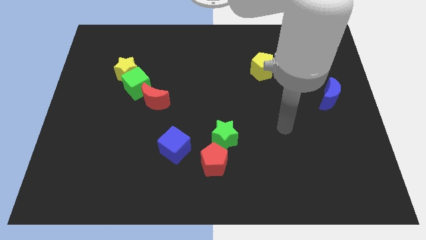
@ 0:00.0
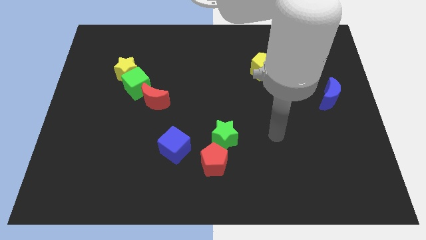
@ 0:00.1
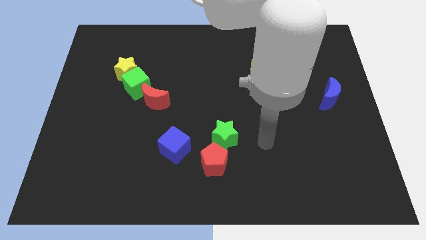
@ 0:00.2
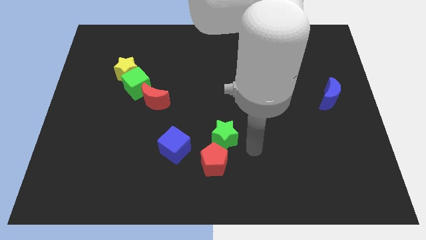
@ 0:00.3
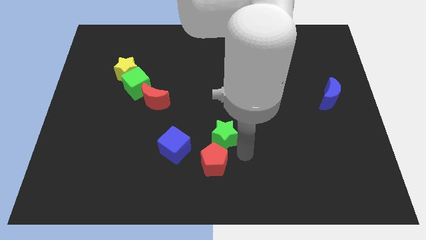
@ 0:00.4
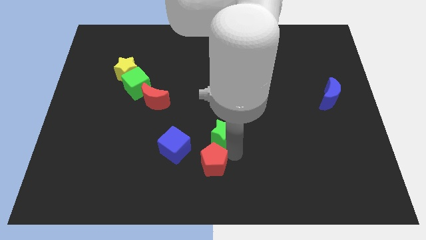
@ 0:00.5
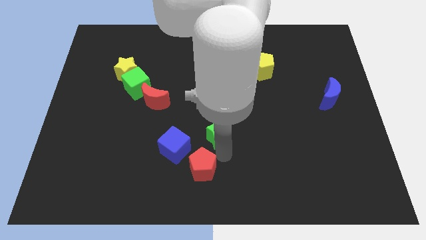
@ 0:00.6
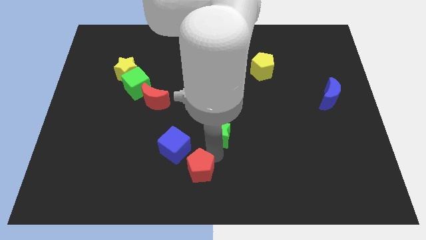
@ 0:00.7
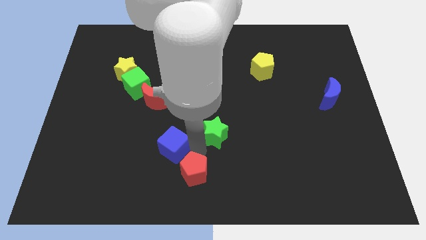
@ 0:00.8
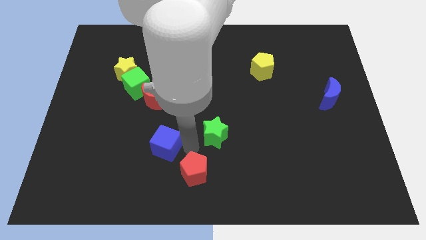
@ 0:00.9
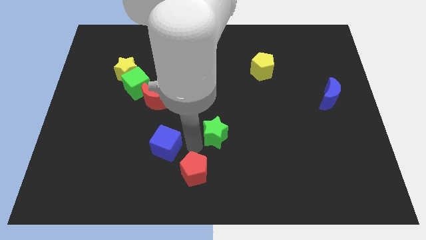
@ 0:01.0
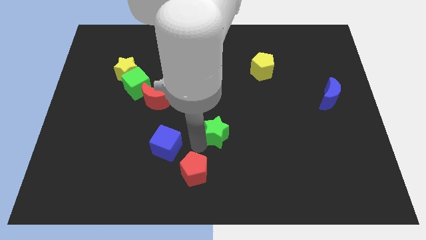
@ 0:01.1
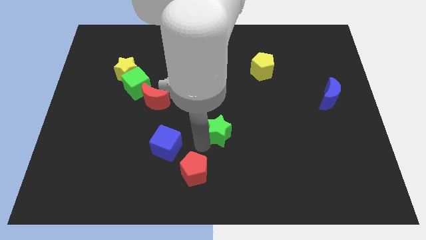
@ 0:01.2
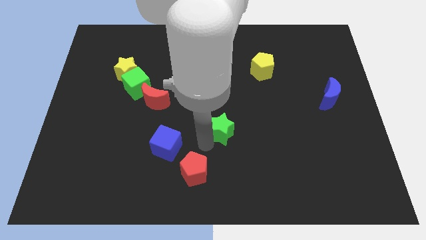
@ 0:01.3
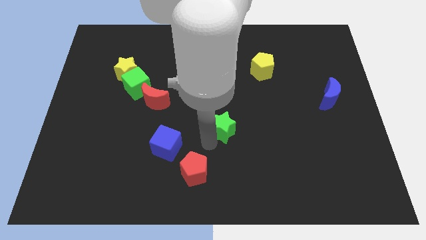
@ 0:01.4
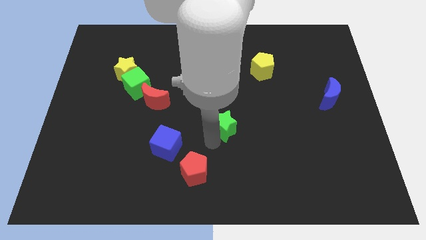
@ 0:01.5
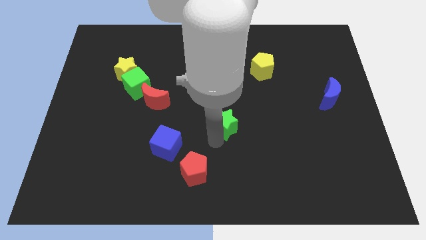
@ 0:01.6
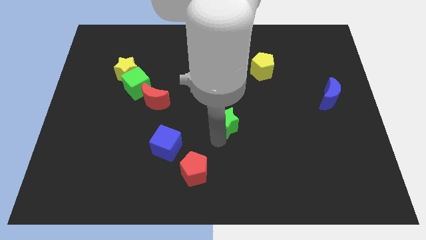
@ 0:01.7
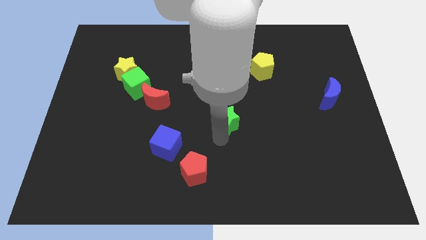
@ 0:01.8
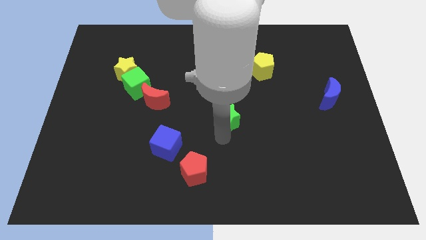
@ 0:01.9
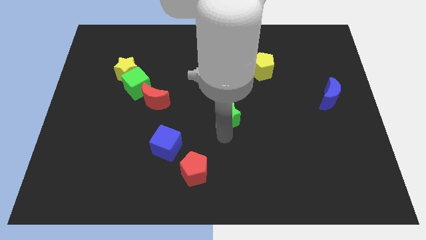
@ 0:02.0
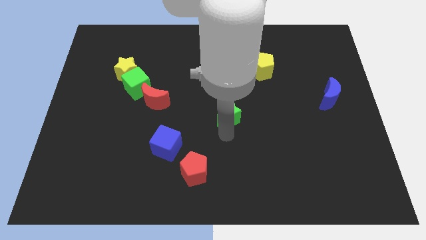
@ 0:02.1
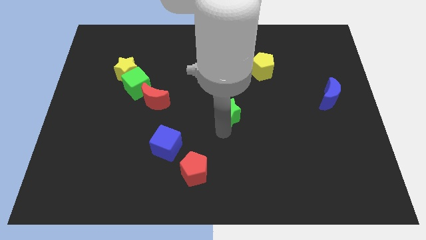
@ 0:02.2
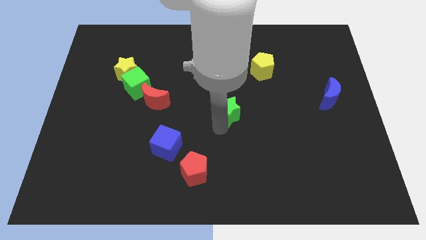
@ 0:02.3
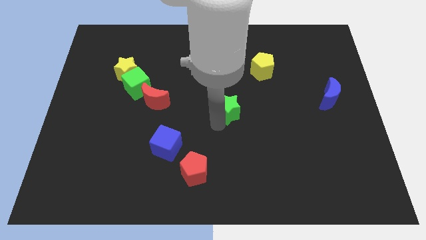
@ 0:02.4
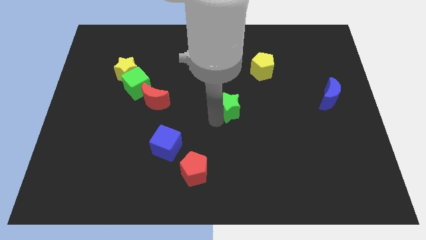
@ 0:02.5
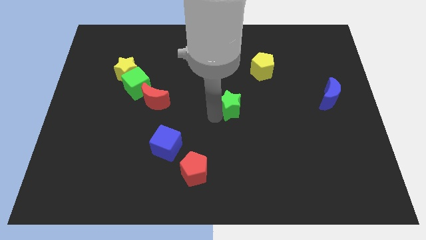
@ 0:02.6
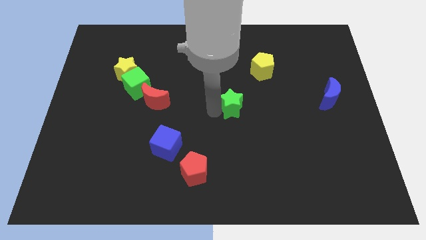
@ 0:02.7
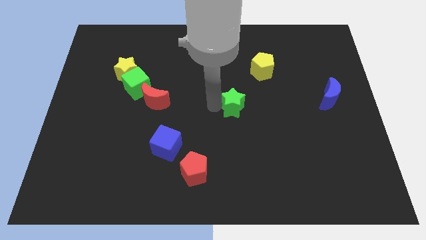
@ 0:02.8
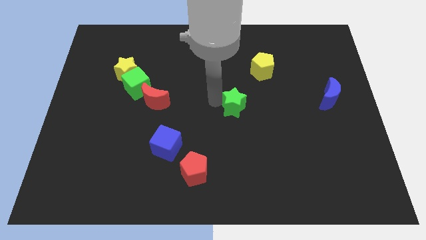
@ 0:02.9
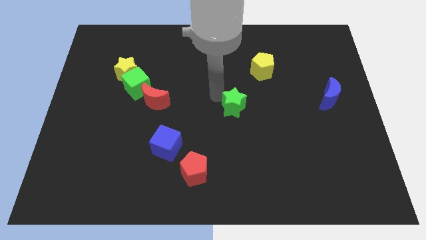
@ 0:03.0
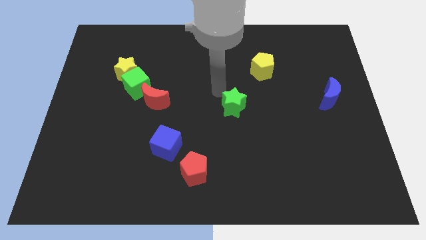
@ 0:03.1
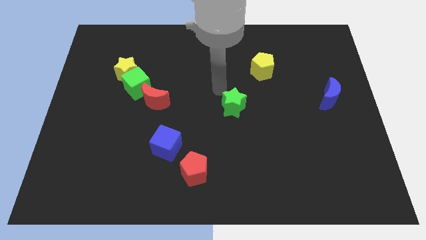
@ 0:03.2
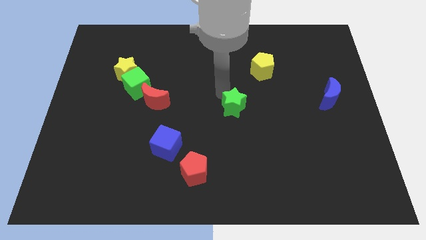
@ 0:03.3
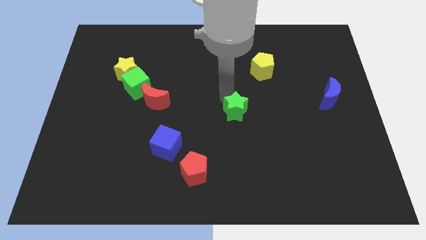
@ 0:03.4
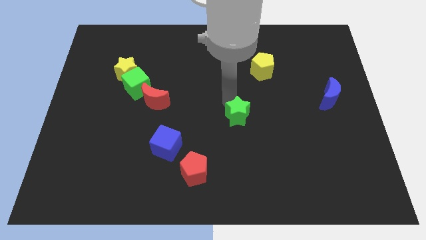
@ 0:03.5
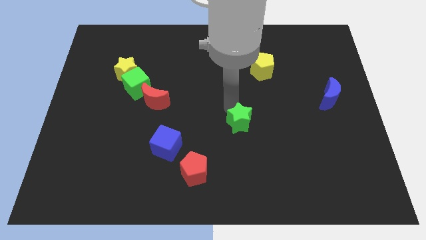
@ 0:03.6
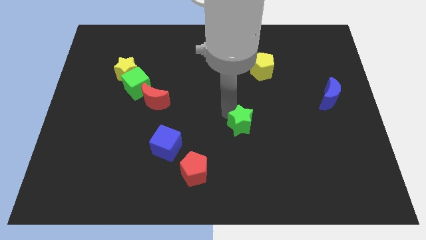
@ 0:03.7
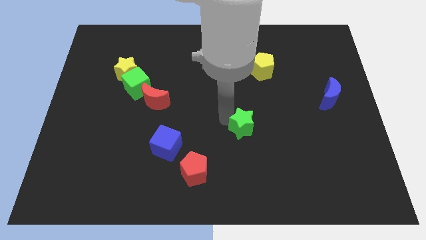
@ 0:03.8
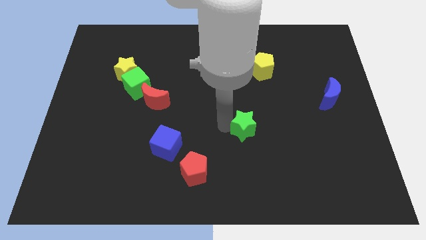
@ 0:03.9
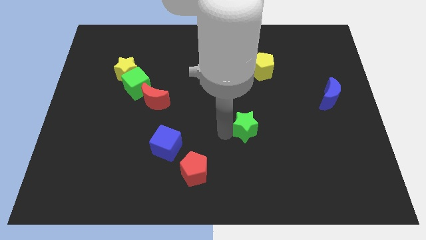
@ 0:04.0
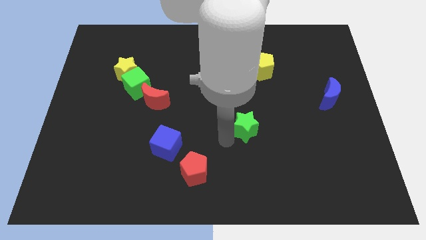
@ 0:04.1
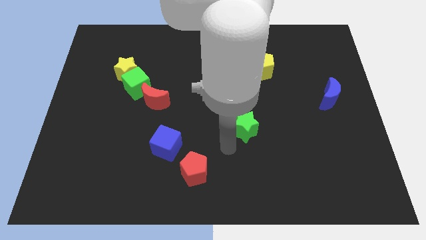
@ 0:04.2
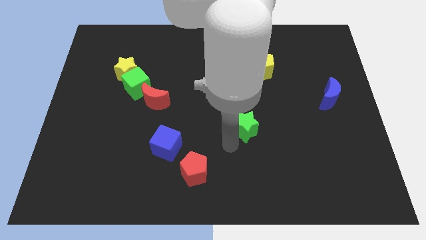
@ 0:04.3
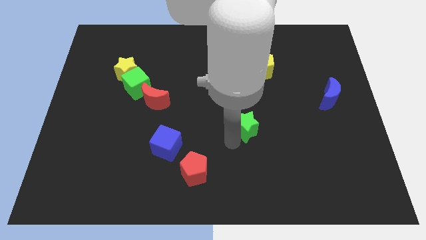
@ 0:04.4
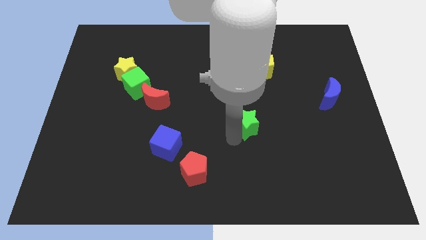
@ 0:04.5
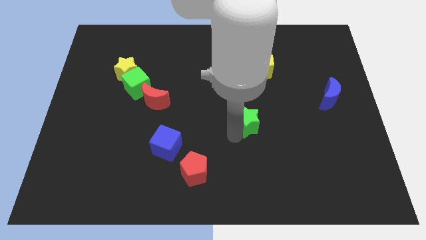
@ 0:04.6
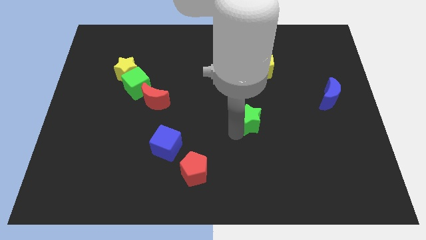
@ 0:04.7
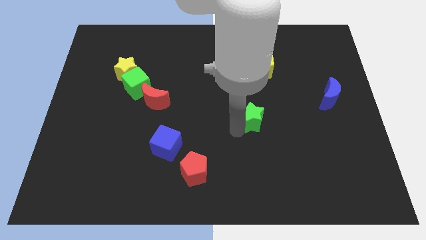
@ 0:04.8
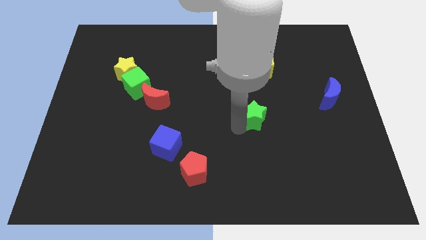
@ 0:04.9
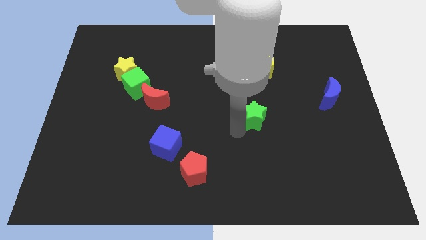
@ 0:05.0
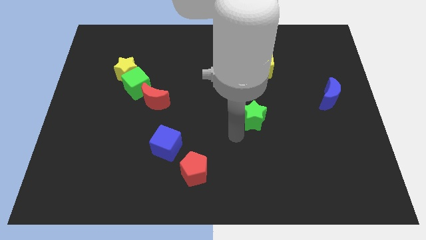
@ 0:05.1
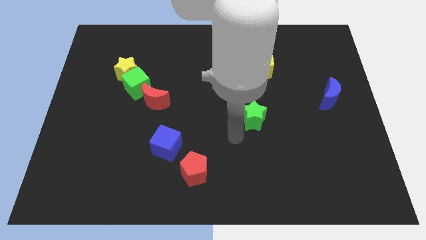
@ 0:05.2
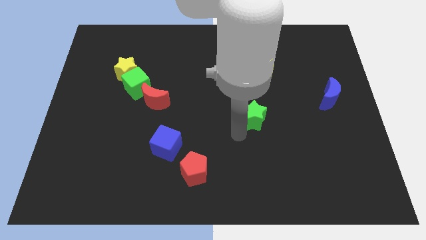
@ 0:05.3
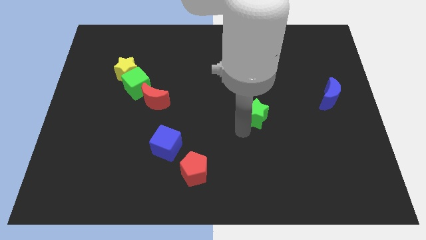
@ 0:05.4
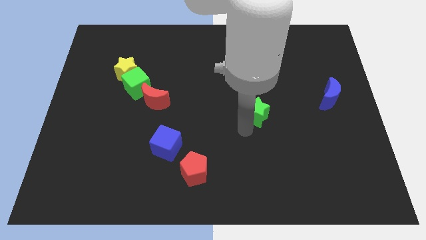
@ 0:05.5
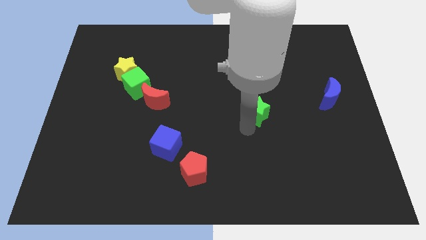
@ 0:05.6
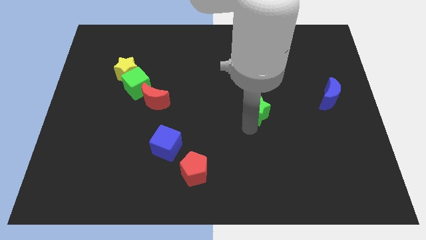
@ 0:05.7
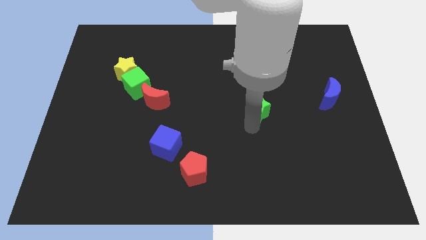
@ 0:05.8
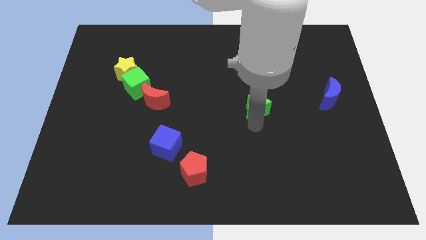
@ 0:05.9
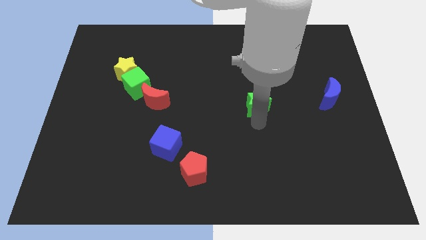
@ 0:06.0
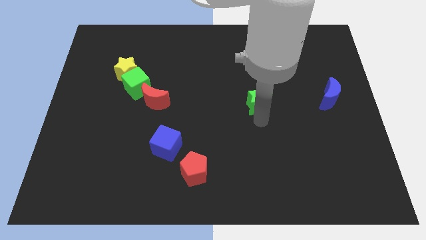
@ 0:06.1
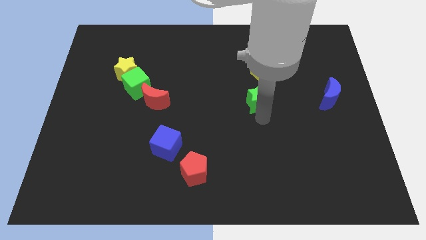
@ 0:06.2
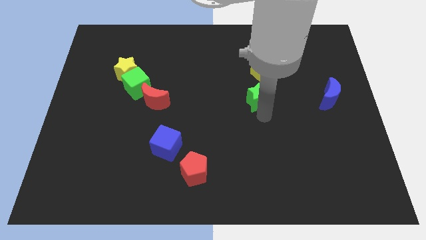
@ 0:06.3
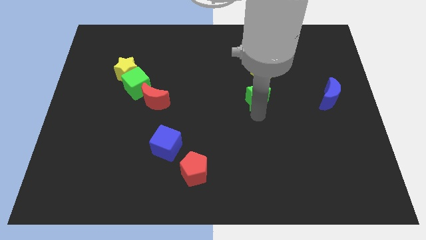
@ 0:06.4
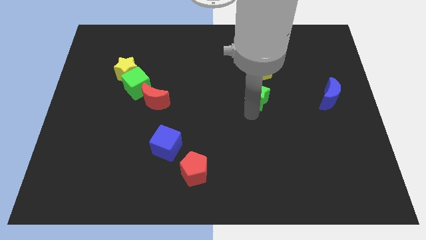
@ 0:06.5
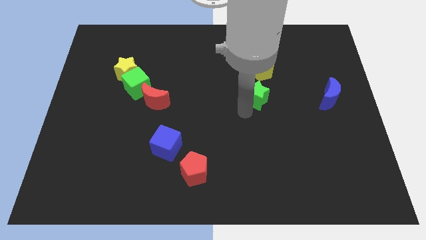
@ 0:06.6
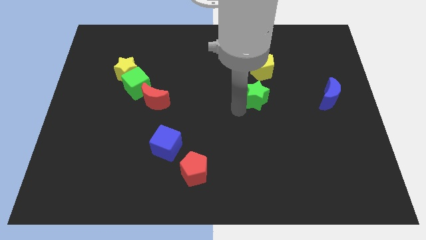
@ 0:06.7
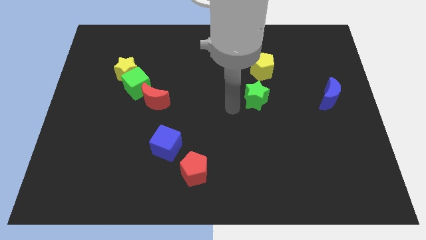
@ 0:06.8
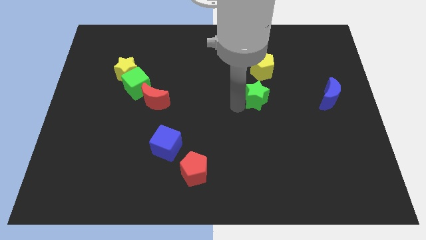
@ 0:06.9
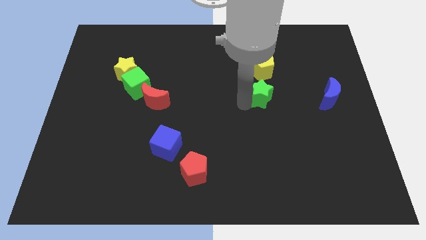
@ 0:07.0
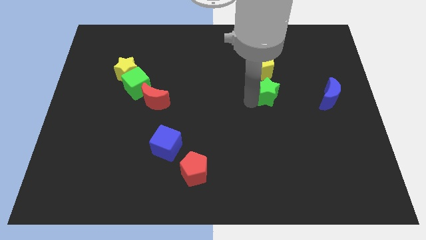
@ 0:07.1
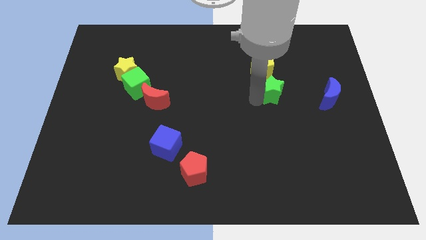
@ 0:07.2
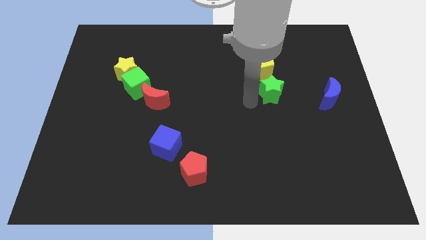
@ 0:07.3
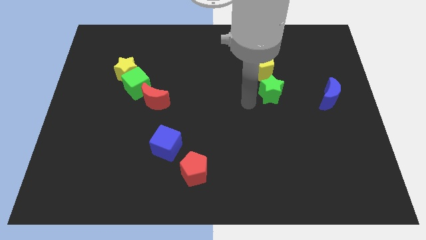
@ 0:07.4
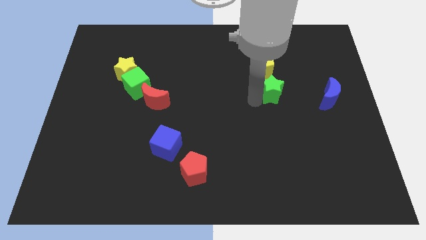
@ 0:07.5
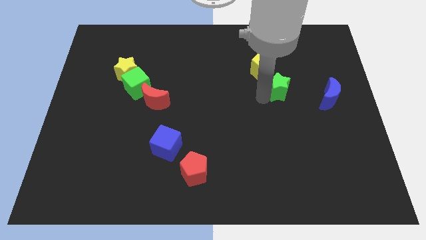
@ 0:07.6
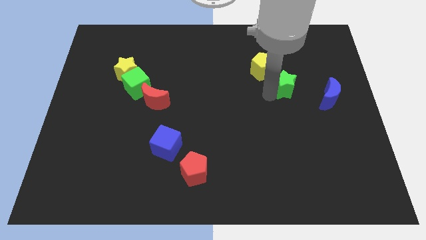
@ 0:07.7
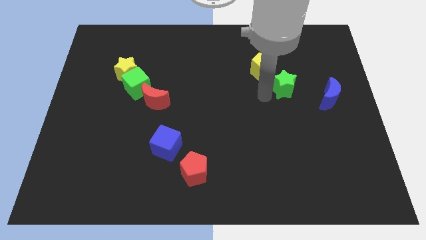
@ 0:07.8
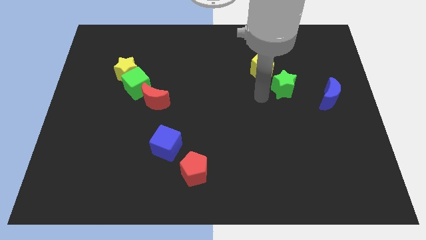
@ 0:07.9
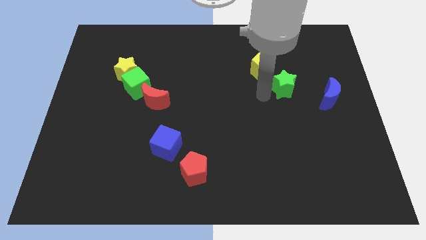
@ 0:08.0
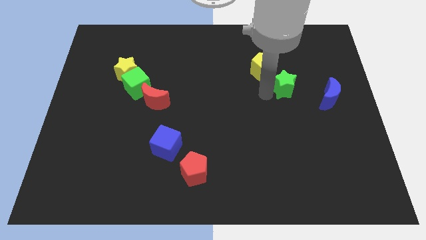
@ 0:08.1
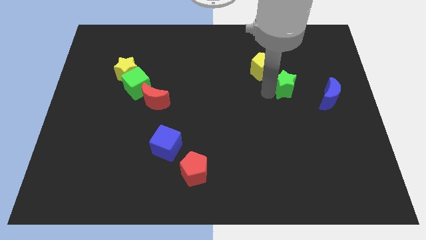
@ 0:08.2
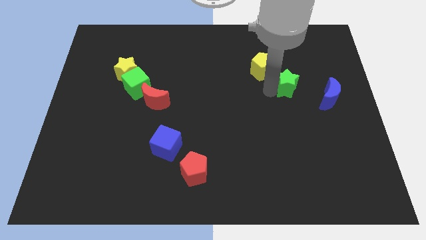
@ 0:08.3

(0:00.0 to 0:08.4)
slide the green star diagonally up and to the left of the blue moon

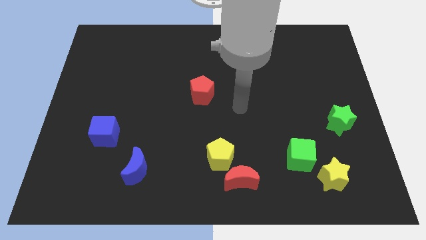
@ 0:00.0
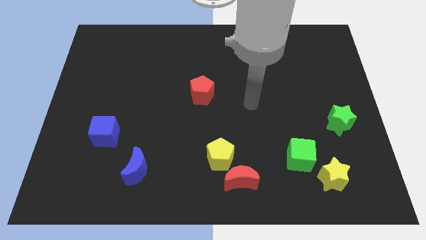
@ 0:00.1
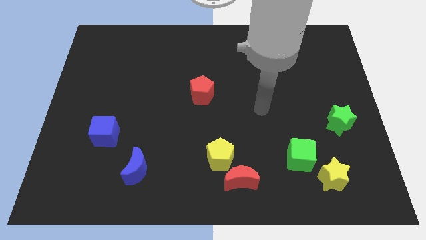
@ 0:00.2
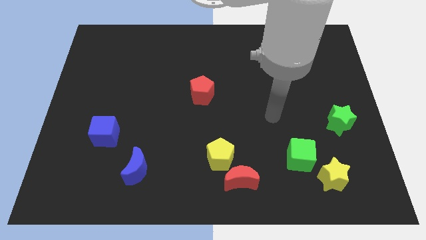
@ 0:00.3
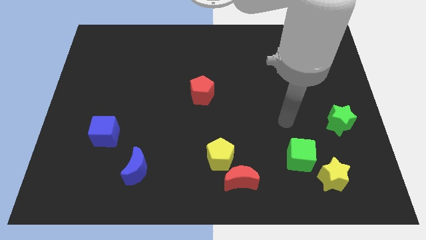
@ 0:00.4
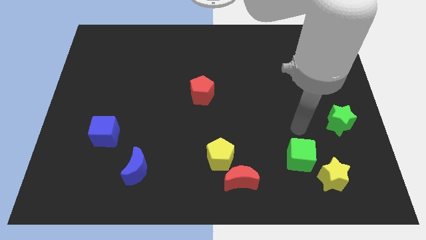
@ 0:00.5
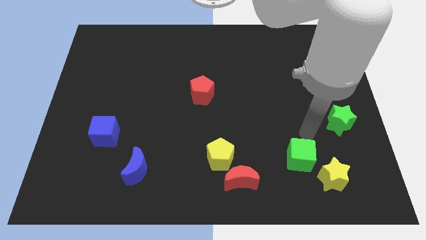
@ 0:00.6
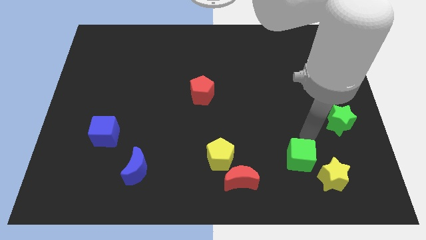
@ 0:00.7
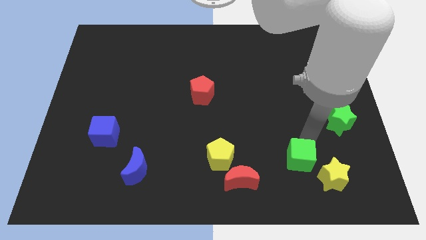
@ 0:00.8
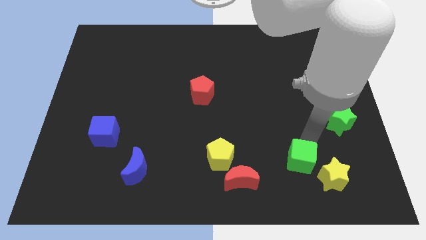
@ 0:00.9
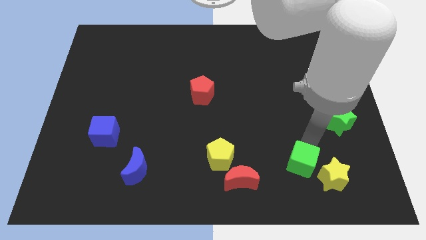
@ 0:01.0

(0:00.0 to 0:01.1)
put the green cube just right of the red moon
